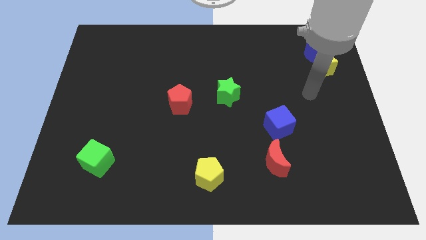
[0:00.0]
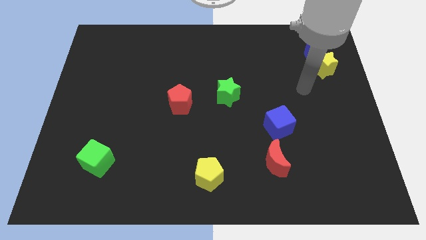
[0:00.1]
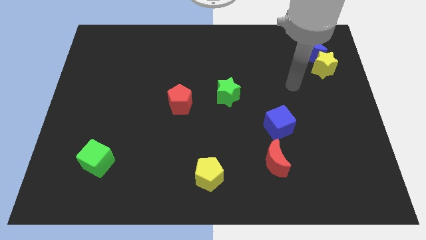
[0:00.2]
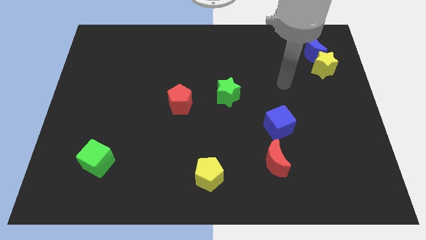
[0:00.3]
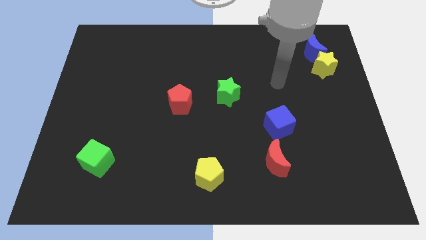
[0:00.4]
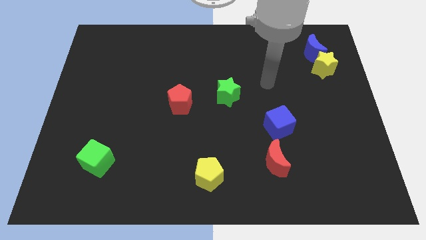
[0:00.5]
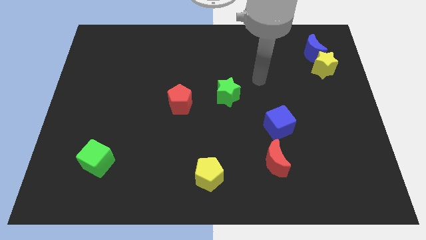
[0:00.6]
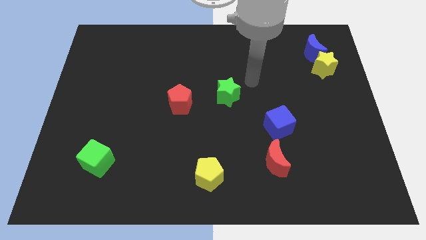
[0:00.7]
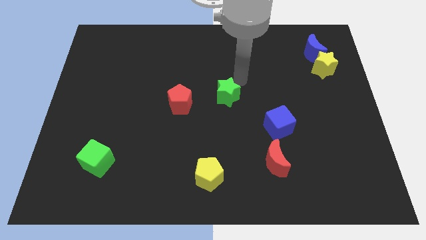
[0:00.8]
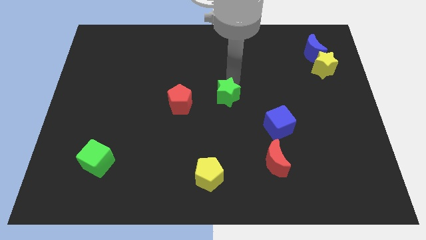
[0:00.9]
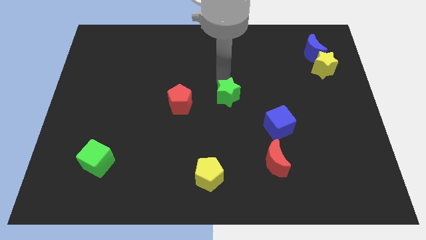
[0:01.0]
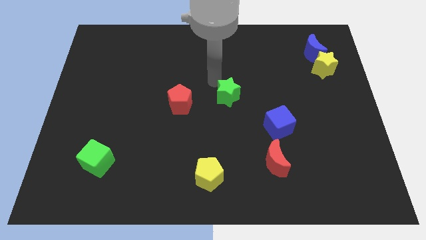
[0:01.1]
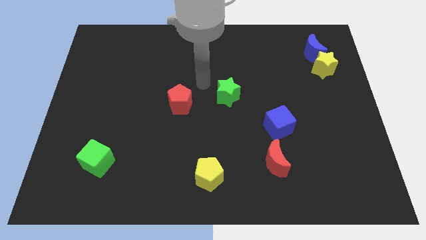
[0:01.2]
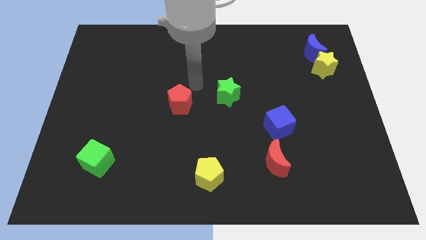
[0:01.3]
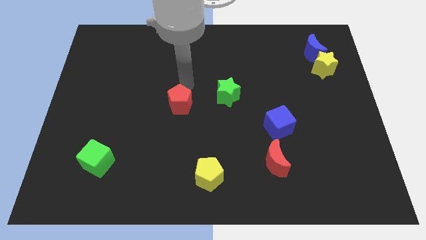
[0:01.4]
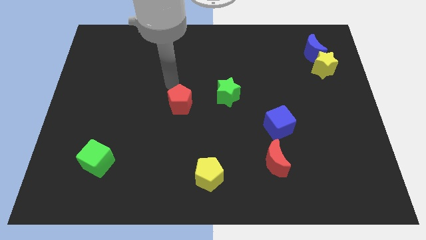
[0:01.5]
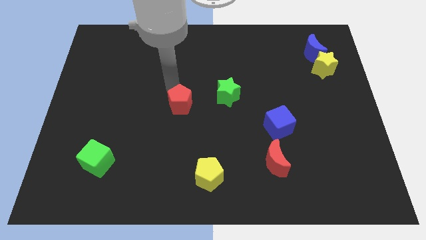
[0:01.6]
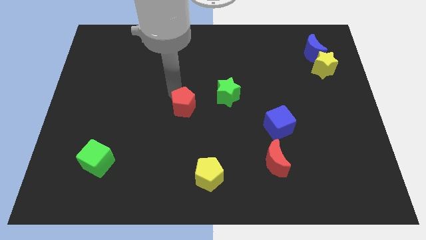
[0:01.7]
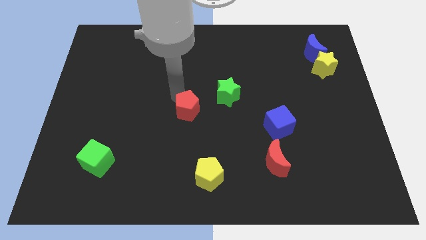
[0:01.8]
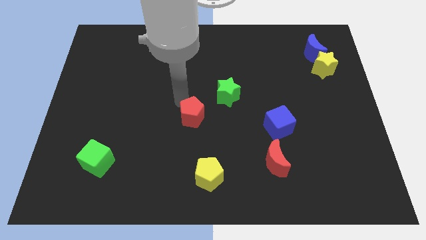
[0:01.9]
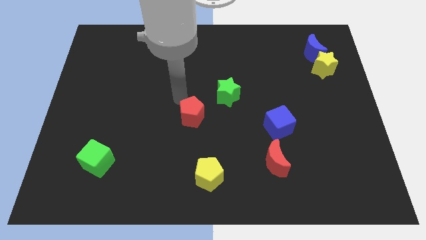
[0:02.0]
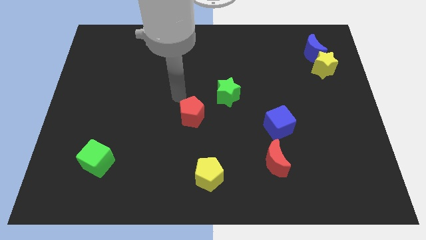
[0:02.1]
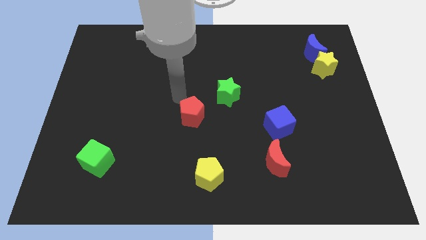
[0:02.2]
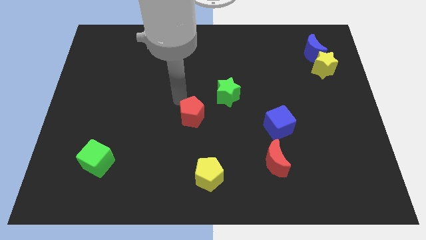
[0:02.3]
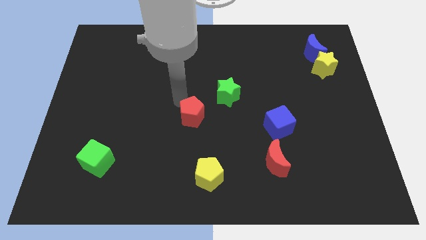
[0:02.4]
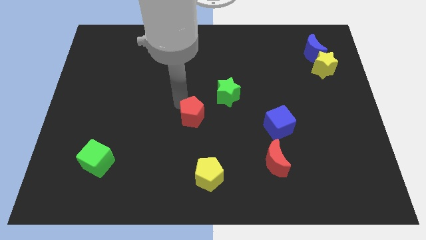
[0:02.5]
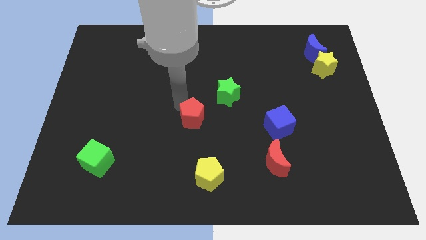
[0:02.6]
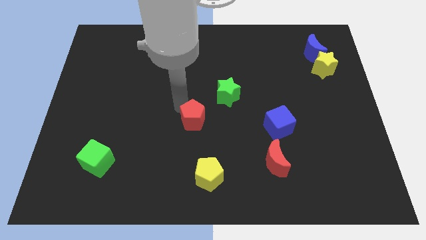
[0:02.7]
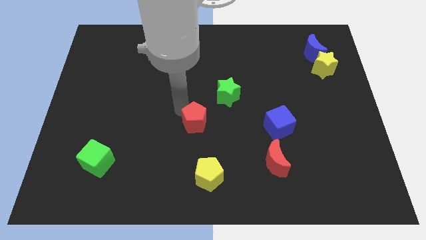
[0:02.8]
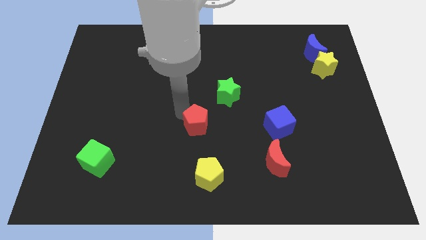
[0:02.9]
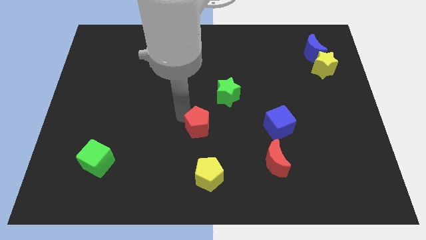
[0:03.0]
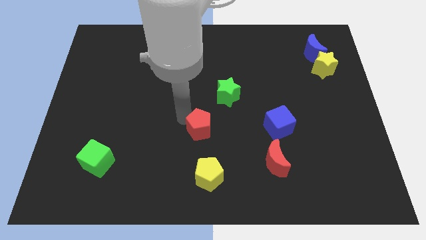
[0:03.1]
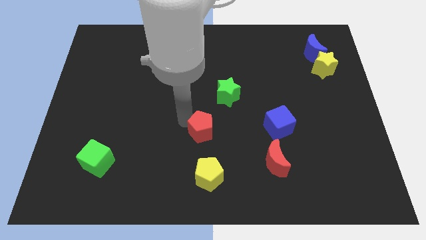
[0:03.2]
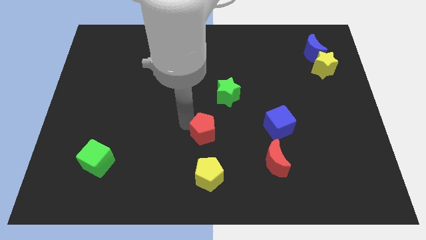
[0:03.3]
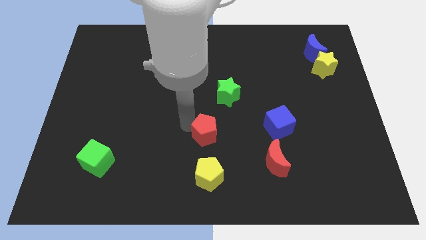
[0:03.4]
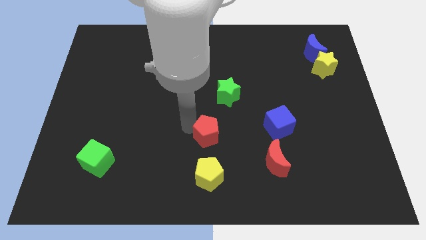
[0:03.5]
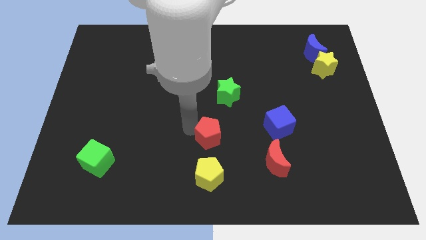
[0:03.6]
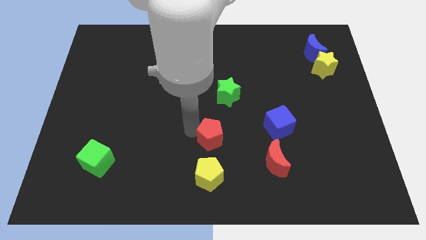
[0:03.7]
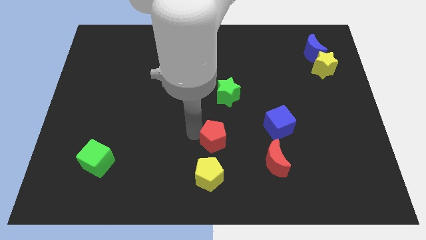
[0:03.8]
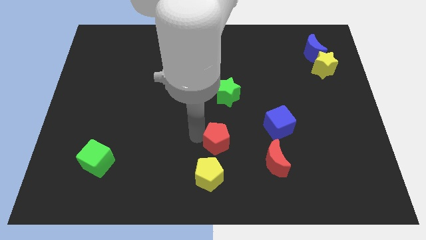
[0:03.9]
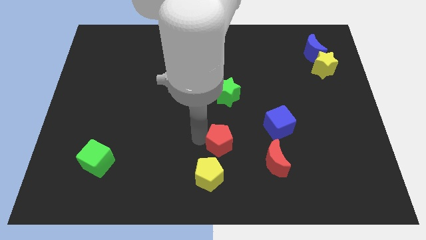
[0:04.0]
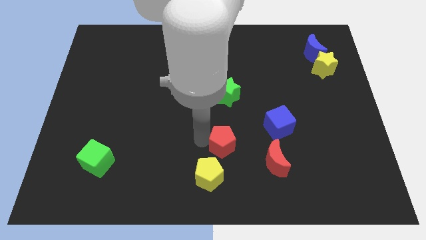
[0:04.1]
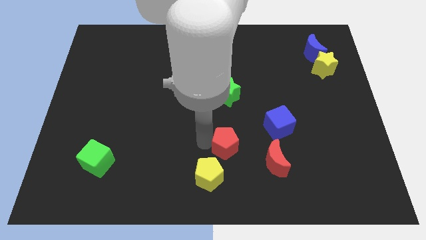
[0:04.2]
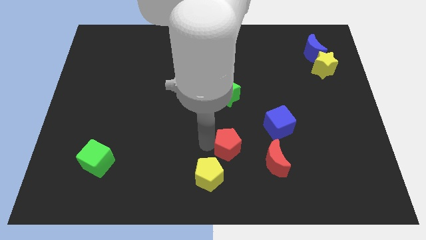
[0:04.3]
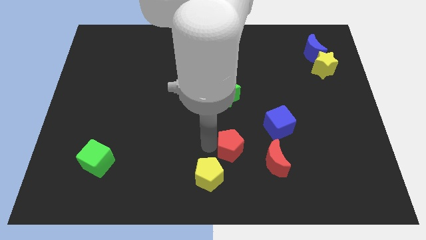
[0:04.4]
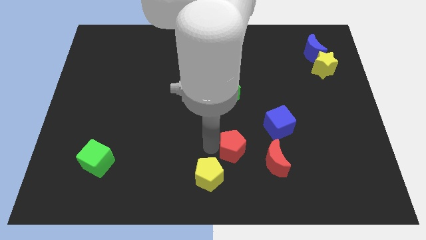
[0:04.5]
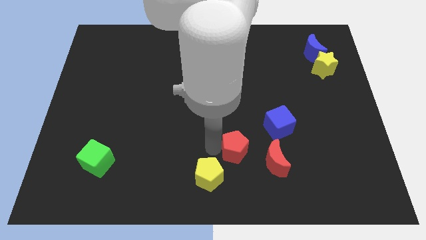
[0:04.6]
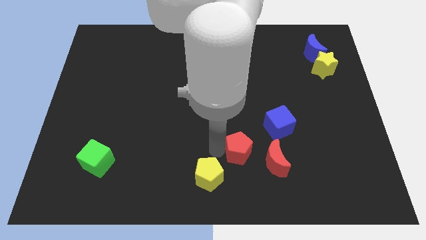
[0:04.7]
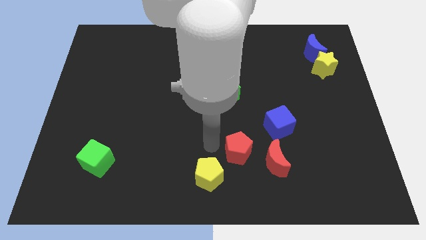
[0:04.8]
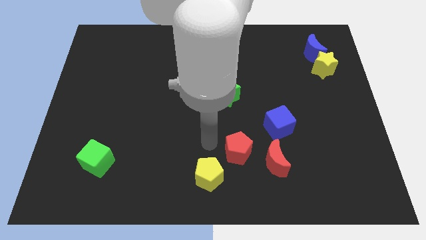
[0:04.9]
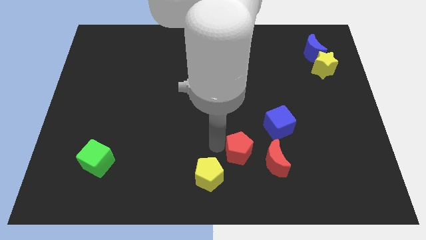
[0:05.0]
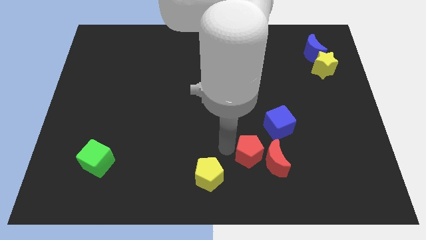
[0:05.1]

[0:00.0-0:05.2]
move the red pentagon to the red moon

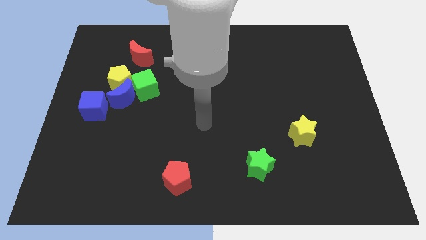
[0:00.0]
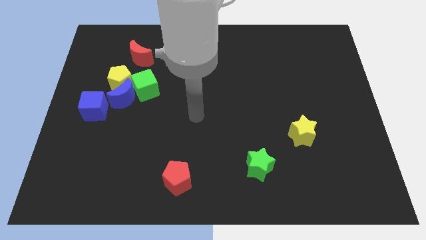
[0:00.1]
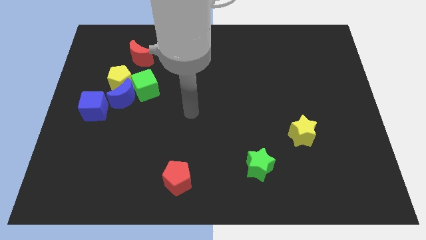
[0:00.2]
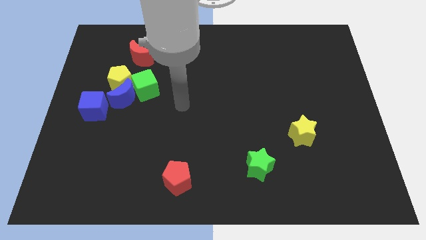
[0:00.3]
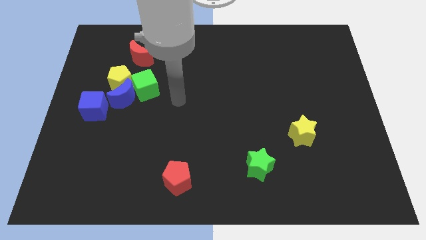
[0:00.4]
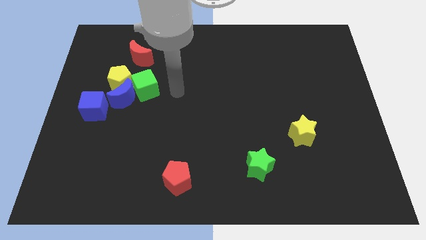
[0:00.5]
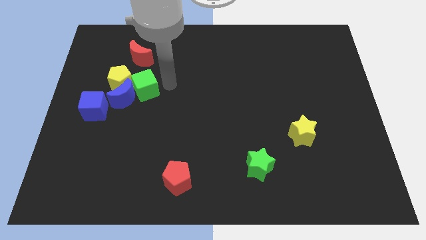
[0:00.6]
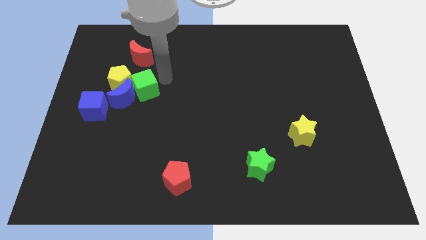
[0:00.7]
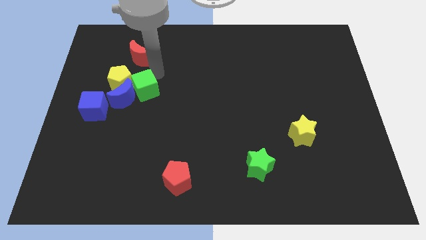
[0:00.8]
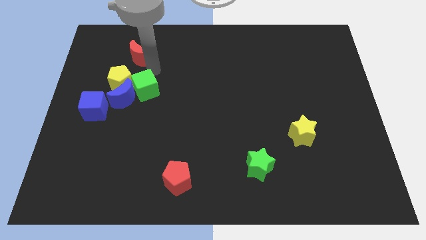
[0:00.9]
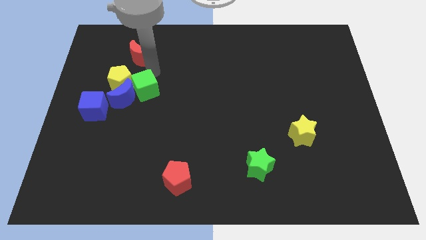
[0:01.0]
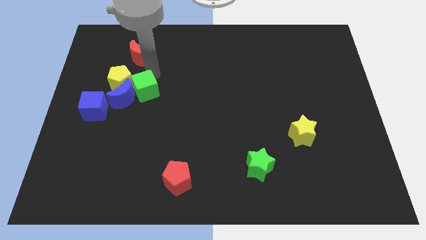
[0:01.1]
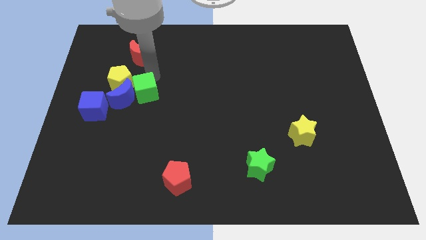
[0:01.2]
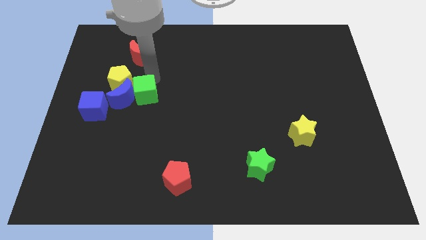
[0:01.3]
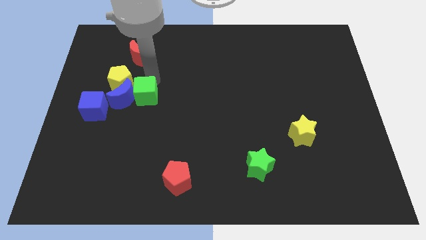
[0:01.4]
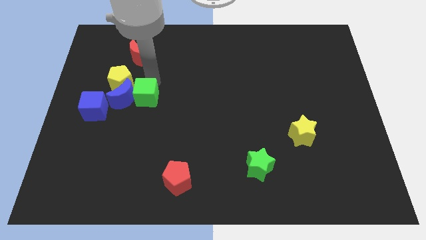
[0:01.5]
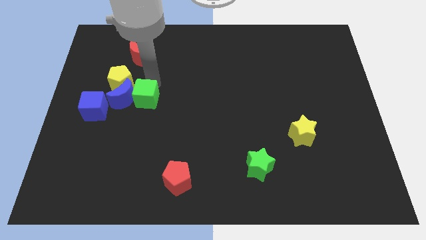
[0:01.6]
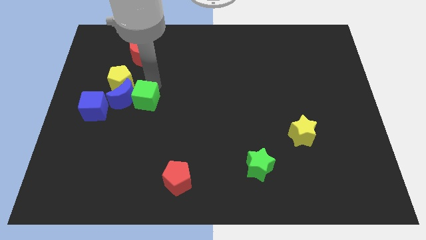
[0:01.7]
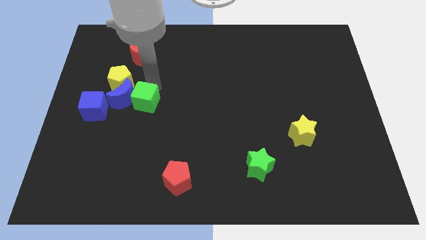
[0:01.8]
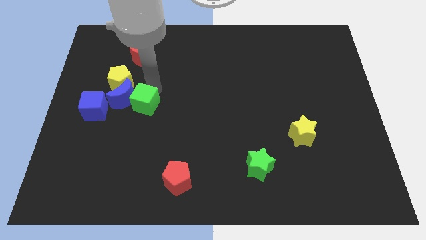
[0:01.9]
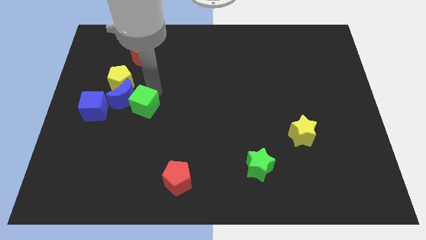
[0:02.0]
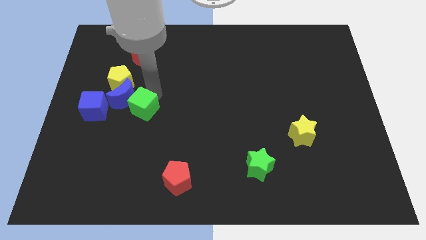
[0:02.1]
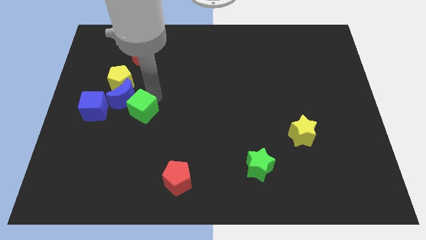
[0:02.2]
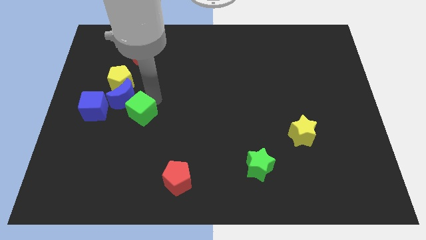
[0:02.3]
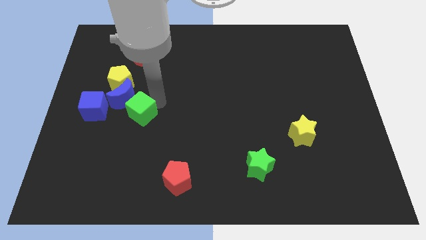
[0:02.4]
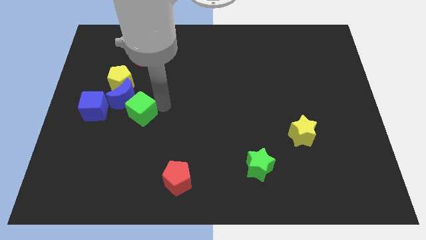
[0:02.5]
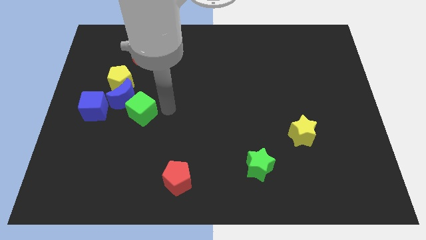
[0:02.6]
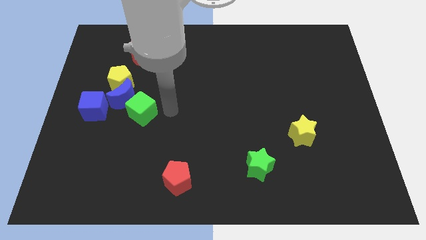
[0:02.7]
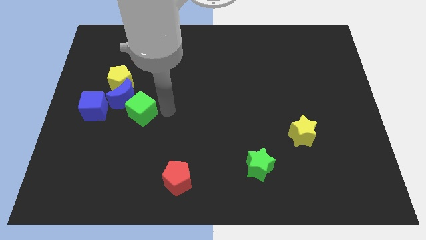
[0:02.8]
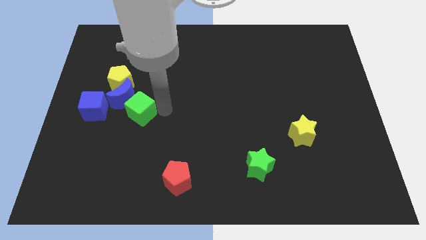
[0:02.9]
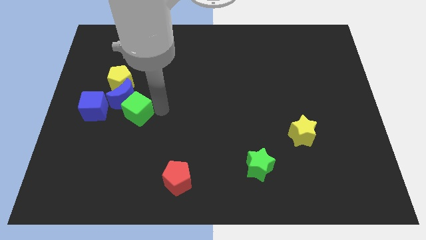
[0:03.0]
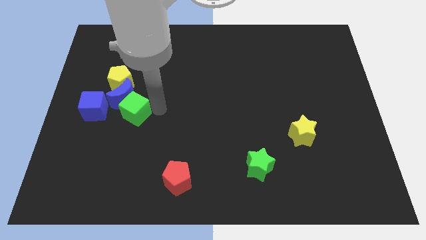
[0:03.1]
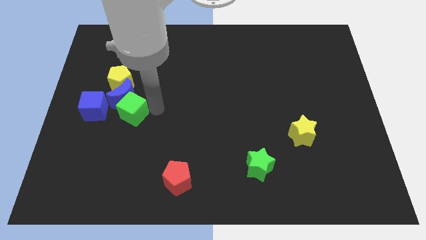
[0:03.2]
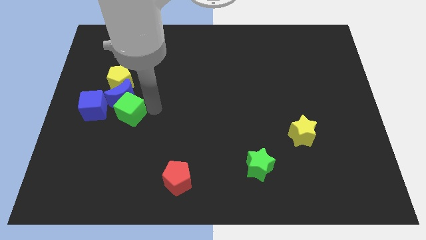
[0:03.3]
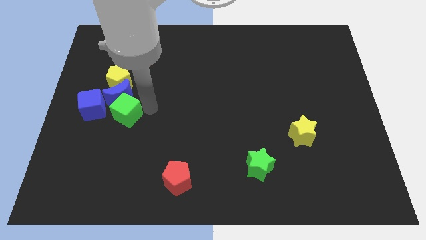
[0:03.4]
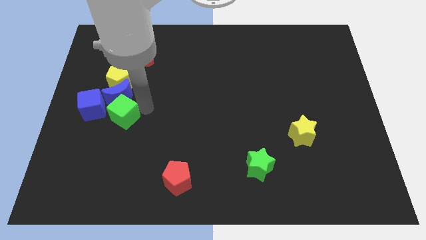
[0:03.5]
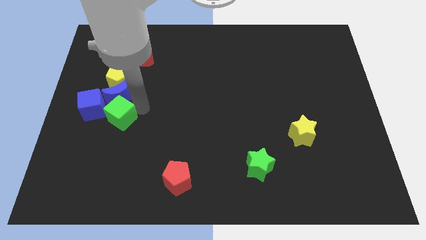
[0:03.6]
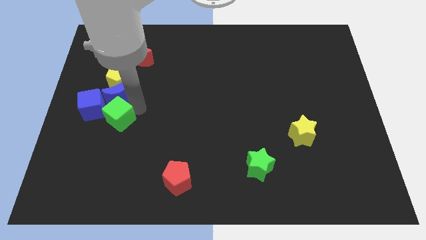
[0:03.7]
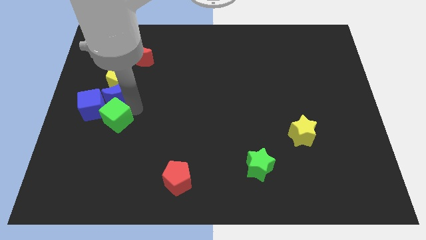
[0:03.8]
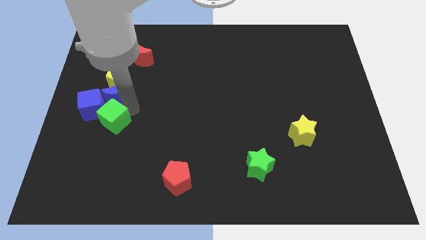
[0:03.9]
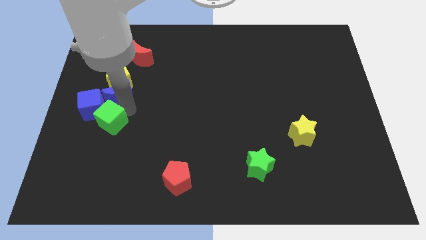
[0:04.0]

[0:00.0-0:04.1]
move the green cube to the blue cube
